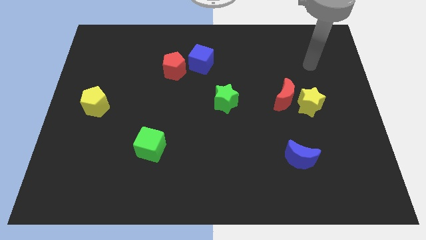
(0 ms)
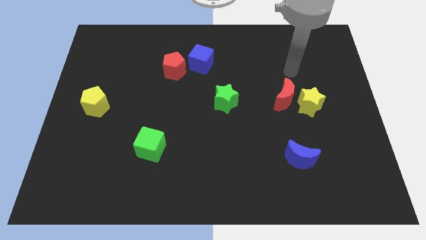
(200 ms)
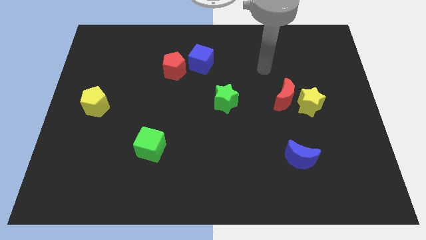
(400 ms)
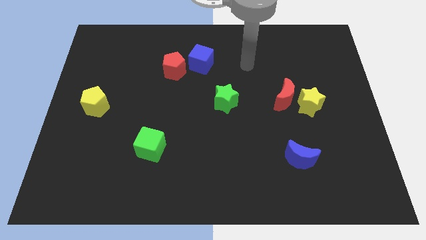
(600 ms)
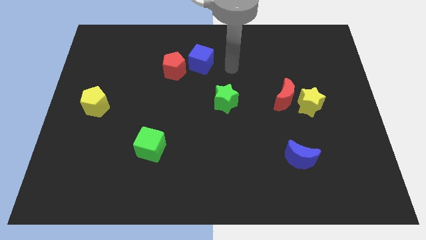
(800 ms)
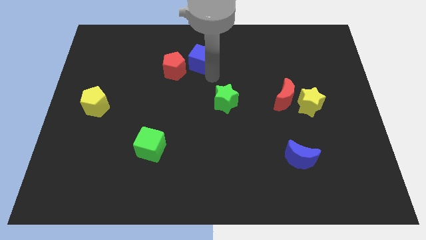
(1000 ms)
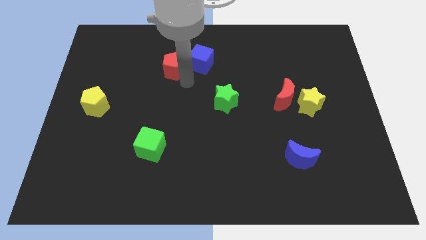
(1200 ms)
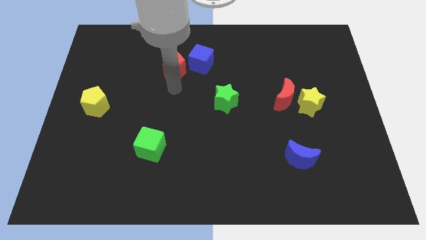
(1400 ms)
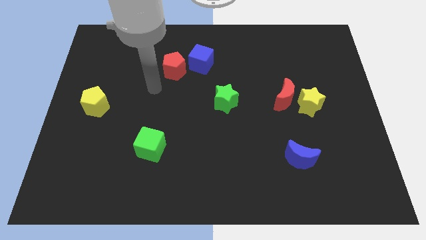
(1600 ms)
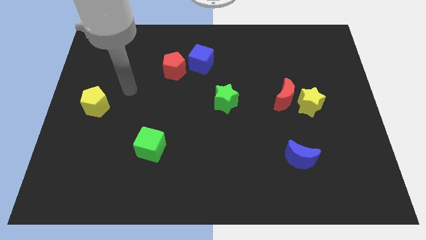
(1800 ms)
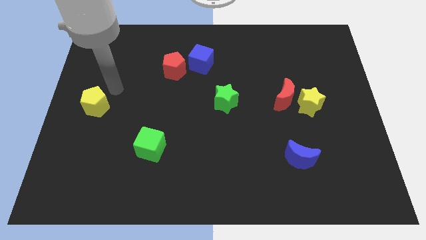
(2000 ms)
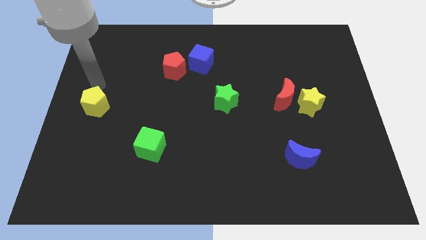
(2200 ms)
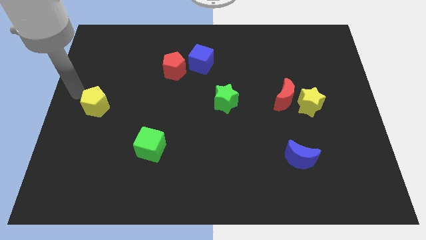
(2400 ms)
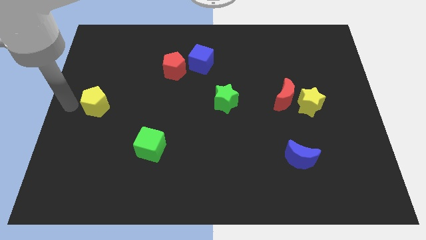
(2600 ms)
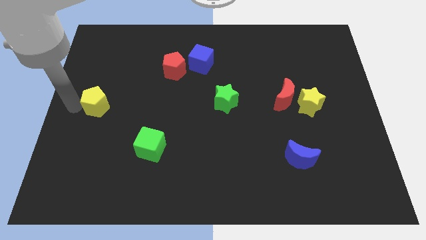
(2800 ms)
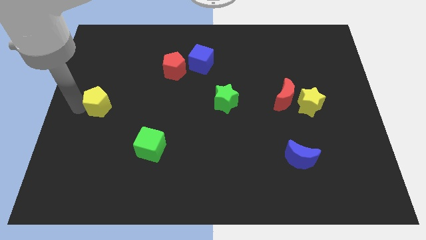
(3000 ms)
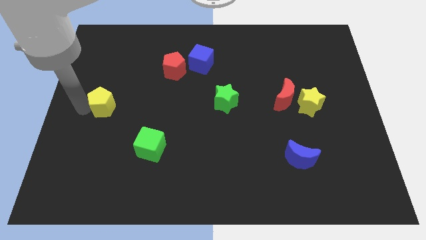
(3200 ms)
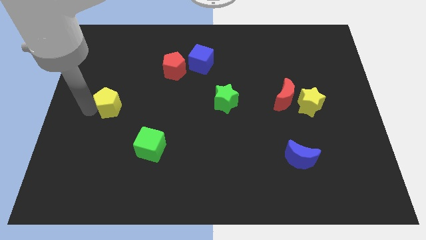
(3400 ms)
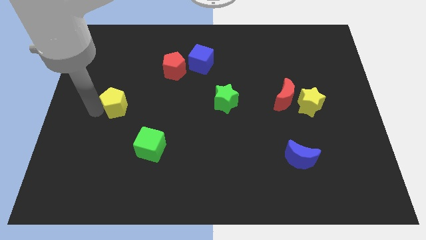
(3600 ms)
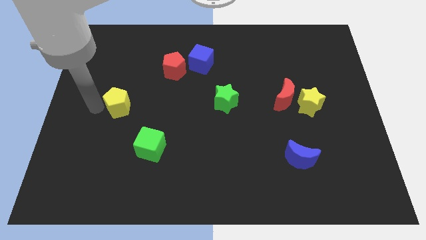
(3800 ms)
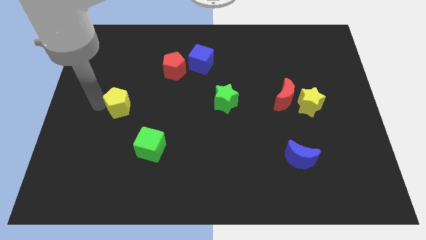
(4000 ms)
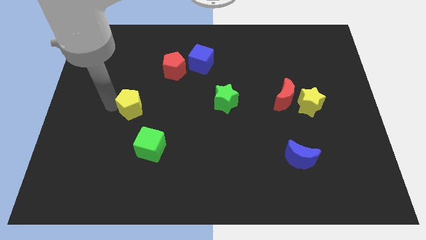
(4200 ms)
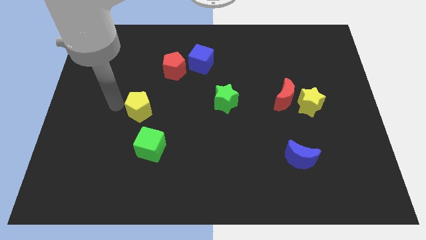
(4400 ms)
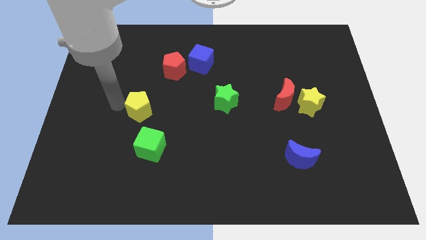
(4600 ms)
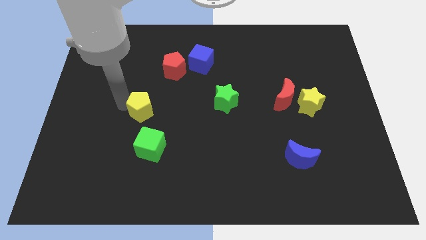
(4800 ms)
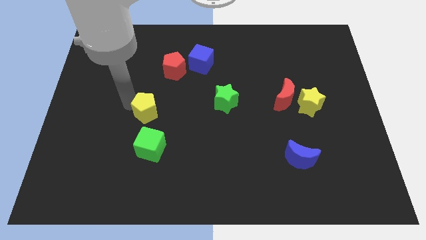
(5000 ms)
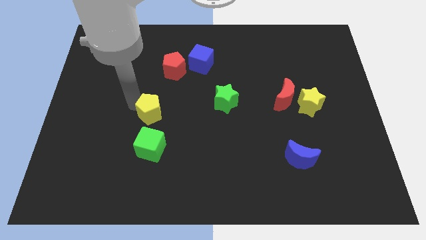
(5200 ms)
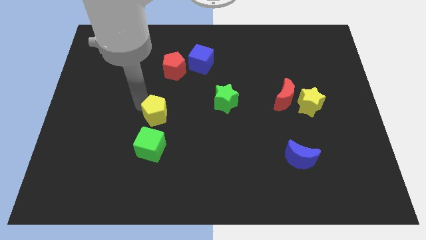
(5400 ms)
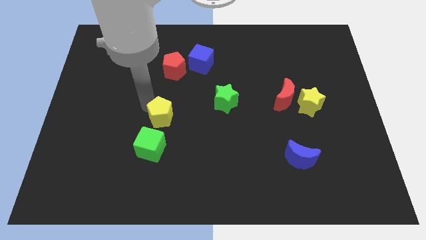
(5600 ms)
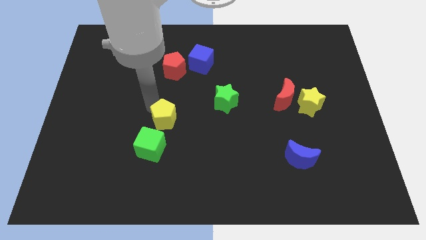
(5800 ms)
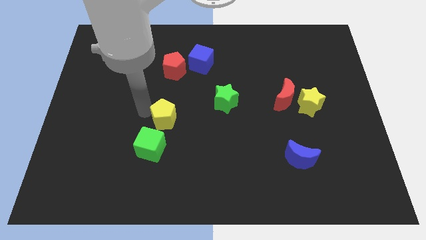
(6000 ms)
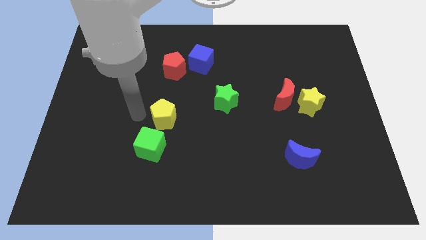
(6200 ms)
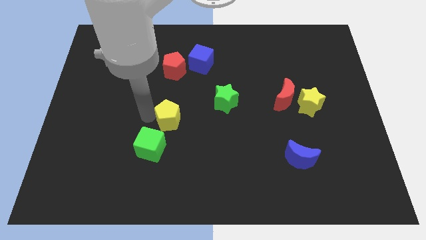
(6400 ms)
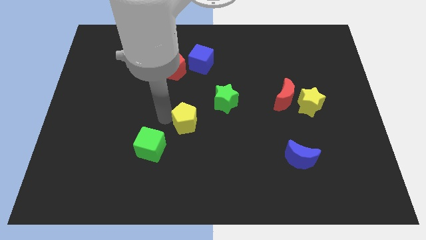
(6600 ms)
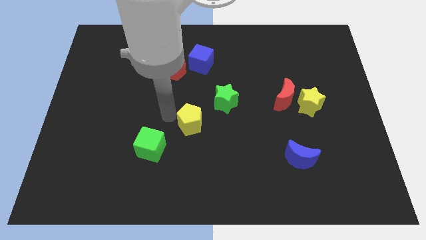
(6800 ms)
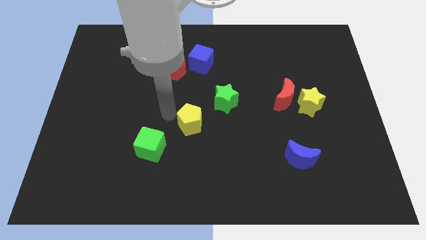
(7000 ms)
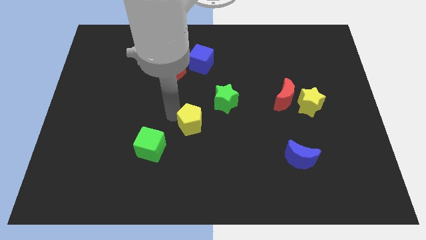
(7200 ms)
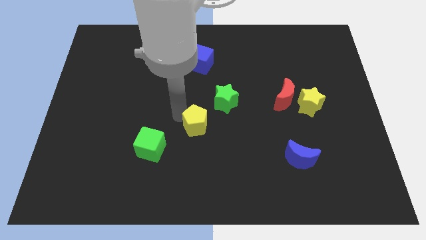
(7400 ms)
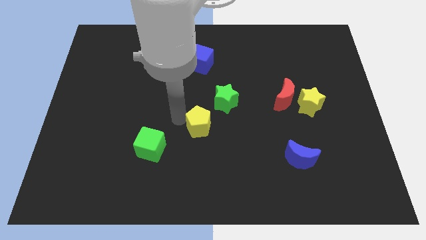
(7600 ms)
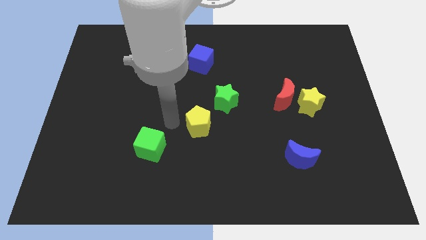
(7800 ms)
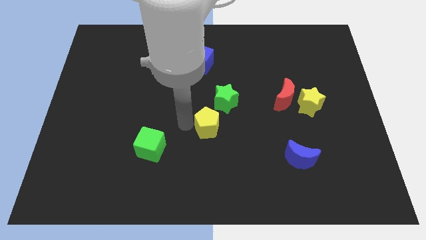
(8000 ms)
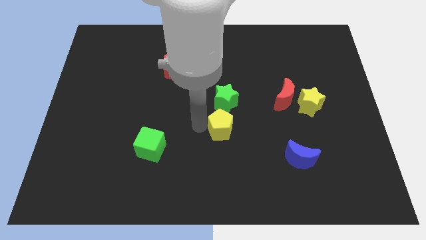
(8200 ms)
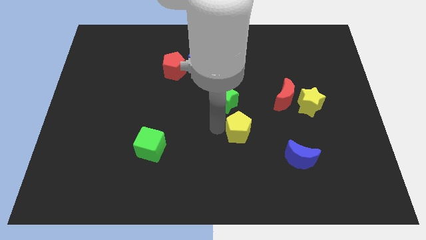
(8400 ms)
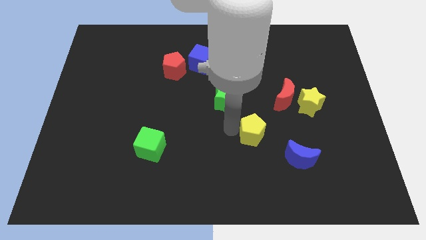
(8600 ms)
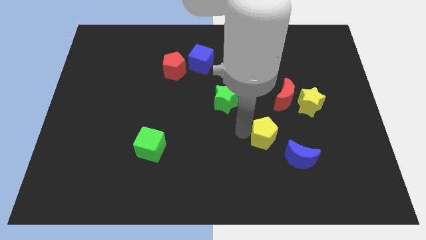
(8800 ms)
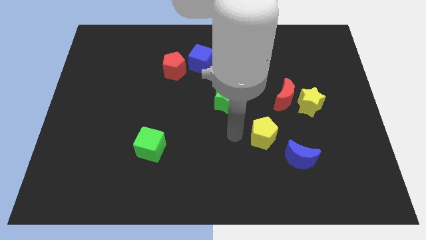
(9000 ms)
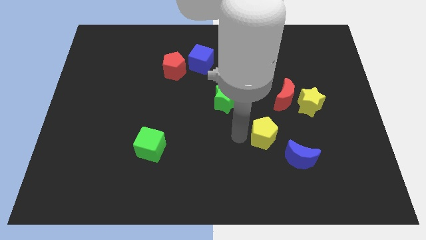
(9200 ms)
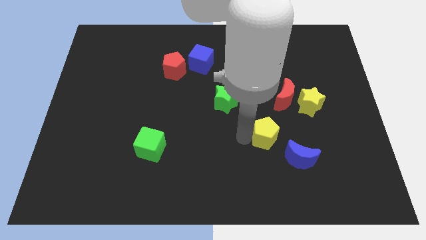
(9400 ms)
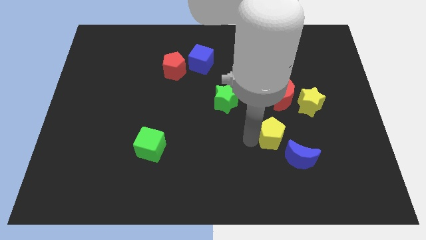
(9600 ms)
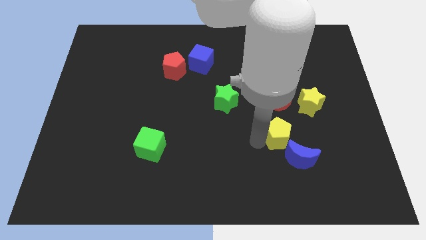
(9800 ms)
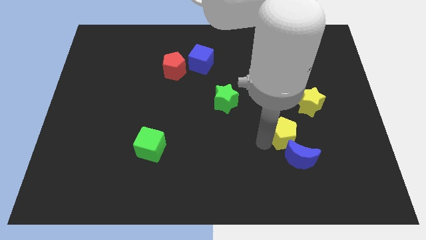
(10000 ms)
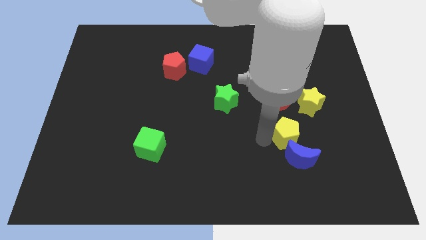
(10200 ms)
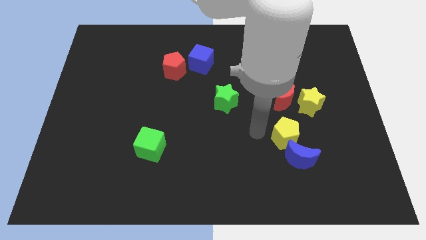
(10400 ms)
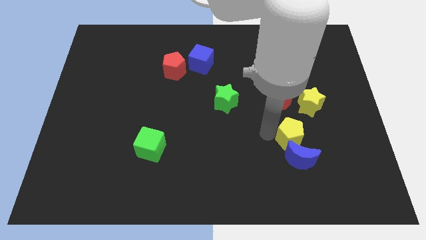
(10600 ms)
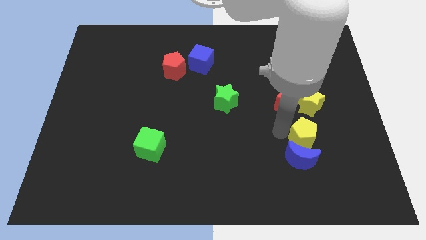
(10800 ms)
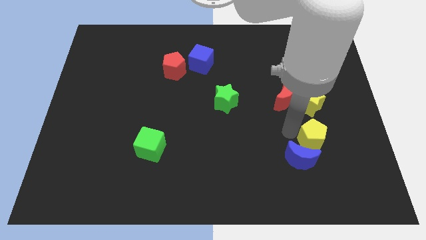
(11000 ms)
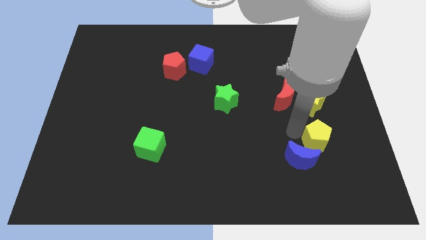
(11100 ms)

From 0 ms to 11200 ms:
move the yellow pentagon just right of the blue moon

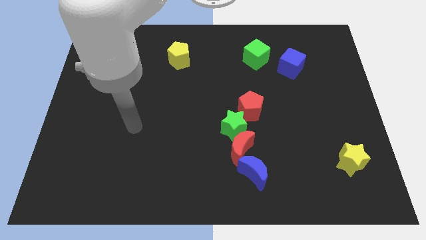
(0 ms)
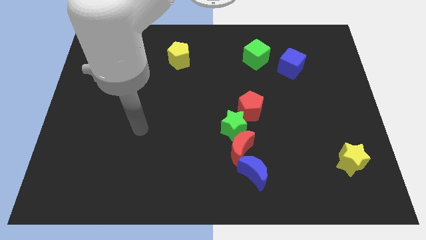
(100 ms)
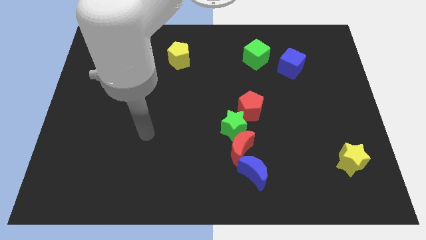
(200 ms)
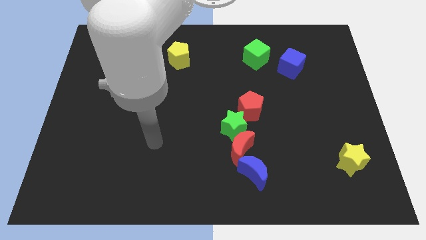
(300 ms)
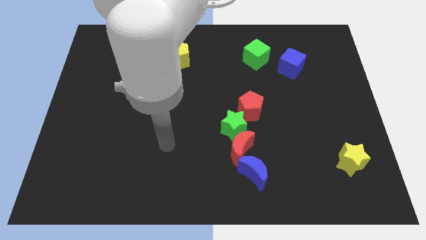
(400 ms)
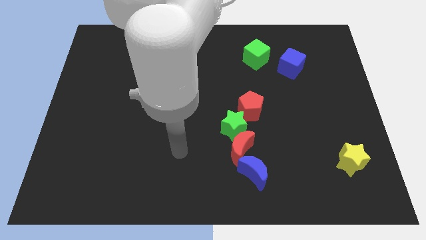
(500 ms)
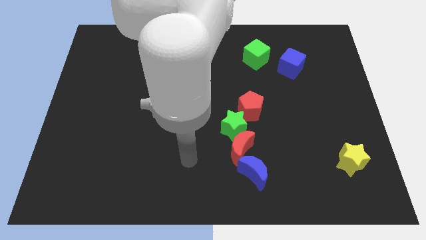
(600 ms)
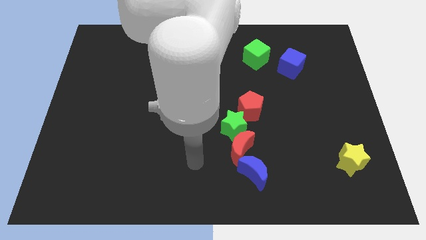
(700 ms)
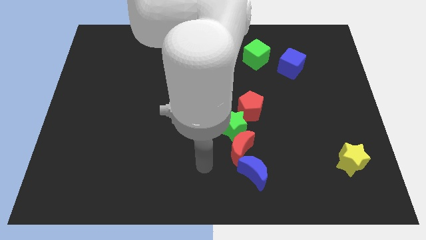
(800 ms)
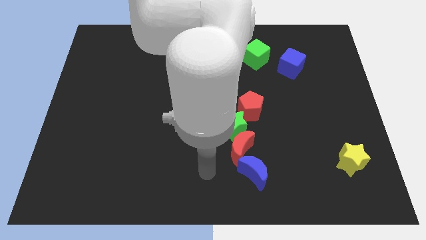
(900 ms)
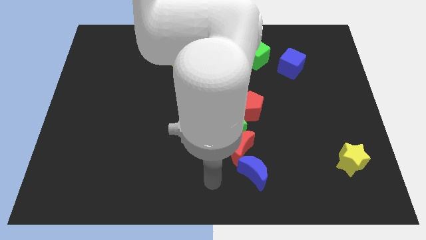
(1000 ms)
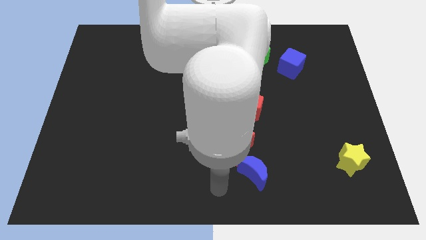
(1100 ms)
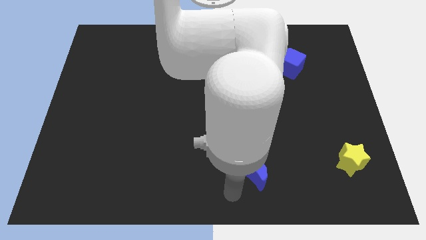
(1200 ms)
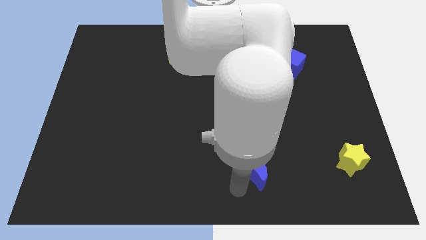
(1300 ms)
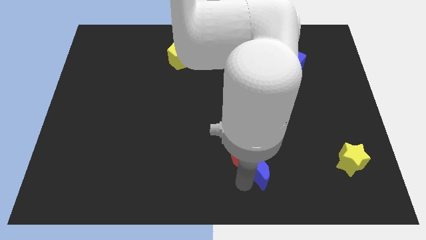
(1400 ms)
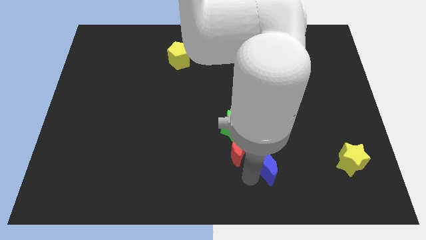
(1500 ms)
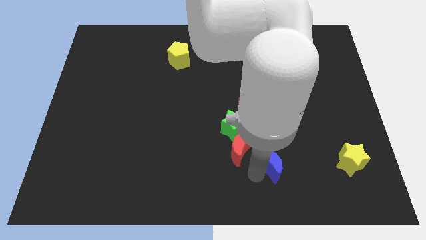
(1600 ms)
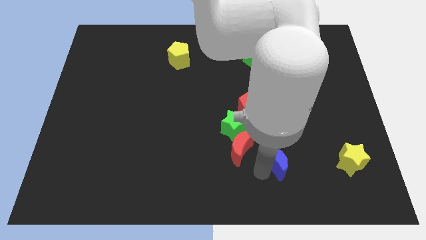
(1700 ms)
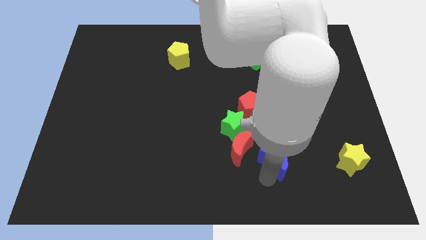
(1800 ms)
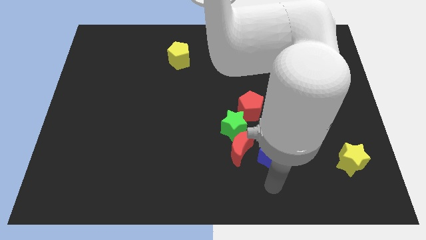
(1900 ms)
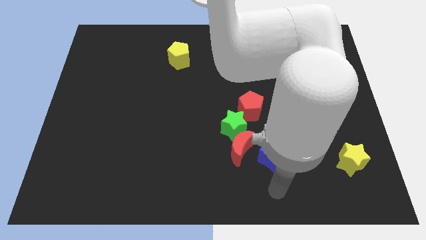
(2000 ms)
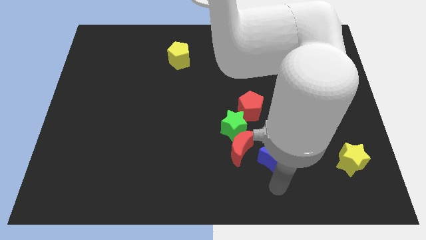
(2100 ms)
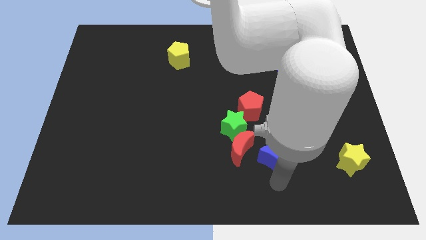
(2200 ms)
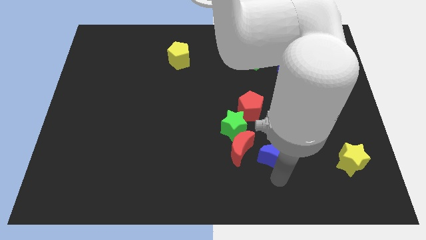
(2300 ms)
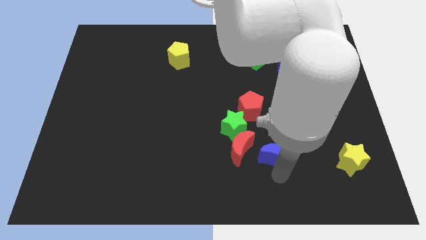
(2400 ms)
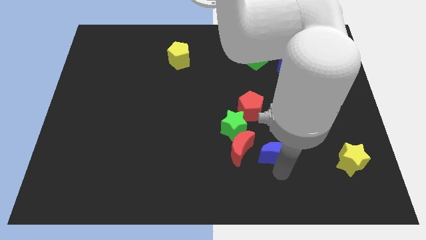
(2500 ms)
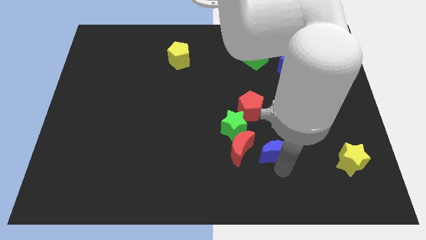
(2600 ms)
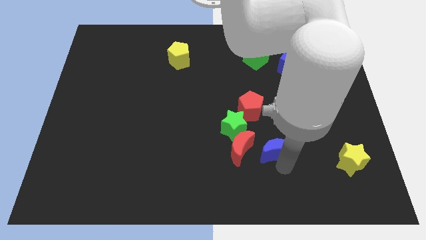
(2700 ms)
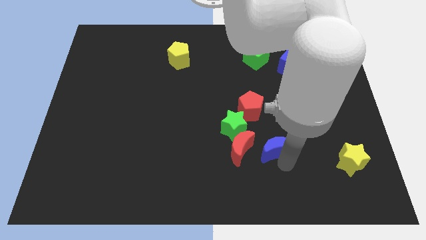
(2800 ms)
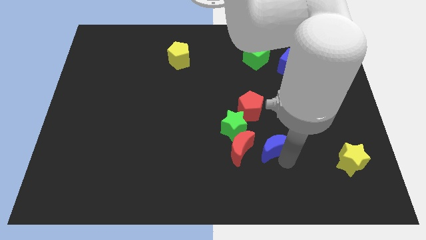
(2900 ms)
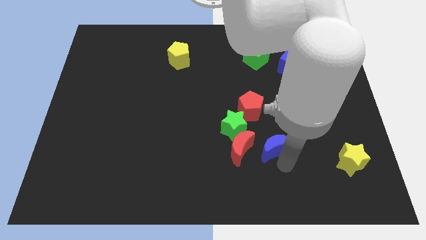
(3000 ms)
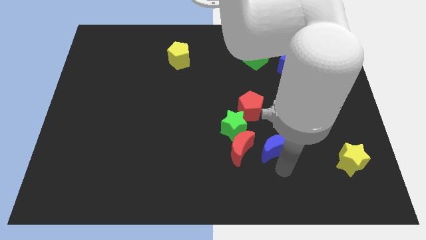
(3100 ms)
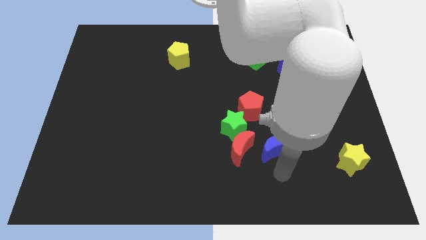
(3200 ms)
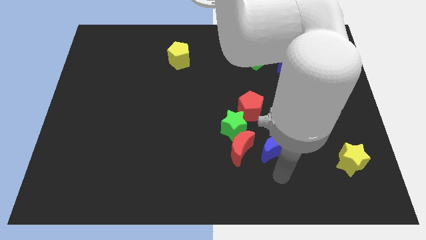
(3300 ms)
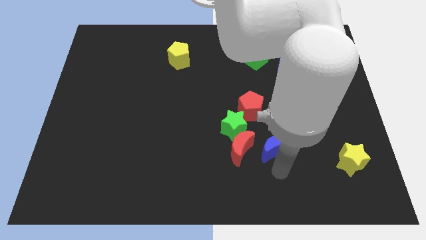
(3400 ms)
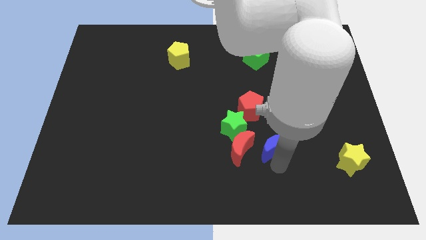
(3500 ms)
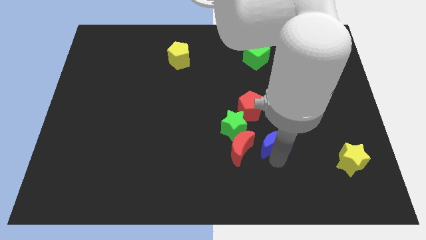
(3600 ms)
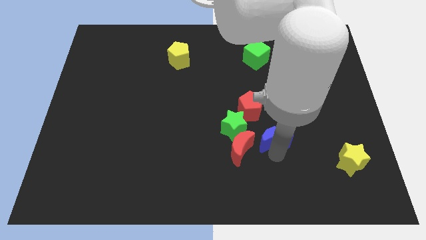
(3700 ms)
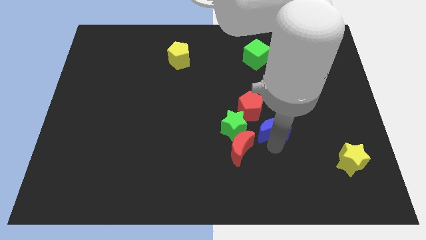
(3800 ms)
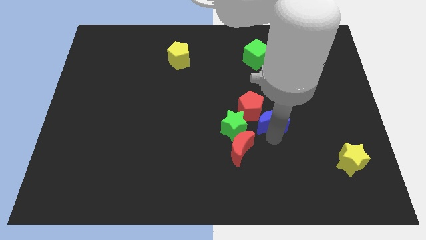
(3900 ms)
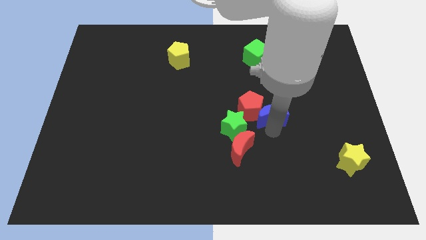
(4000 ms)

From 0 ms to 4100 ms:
push the blue moon to the top right side of the green star
